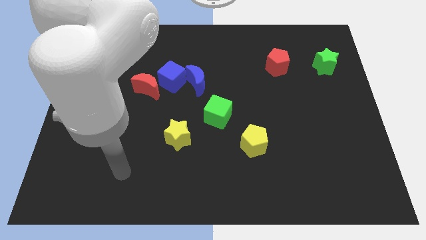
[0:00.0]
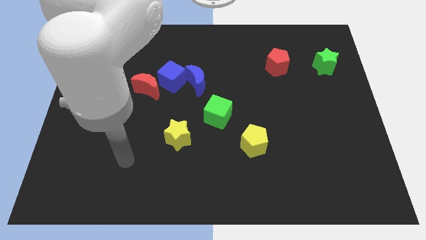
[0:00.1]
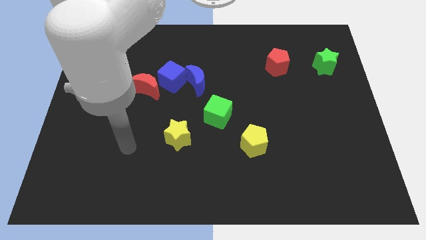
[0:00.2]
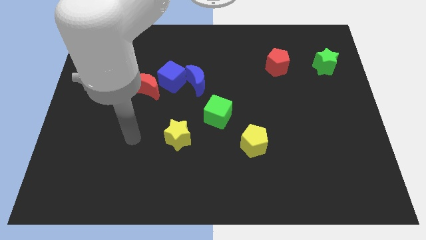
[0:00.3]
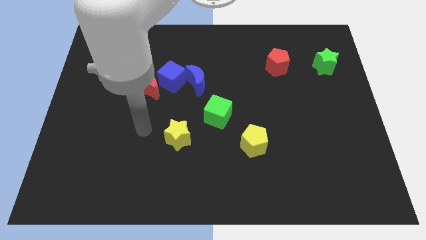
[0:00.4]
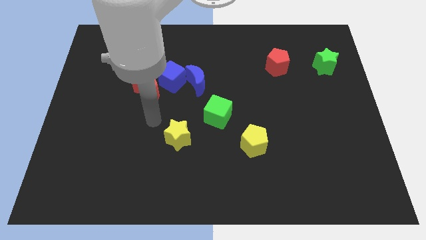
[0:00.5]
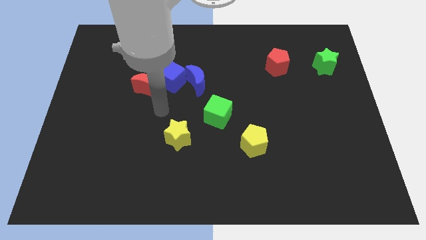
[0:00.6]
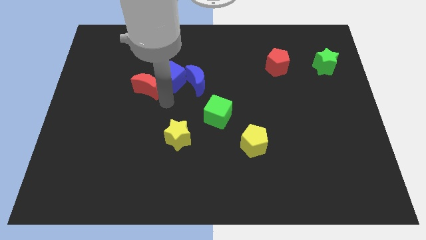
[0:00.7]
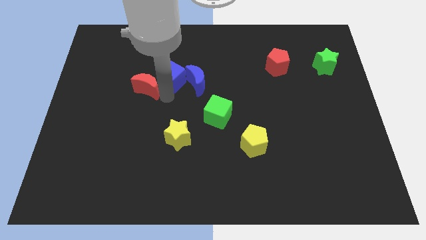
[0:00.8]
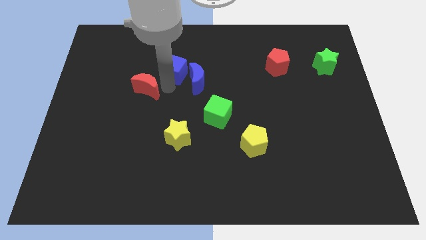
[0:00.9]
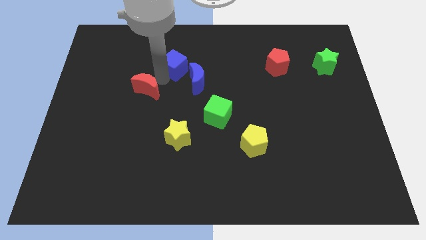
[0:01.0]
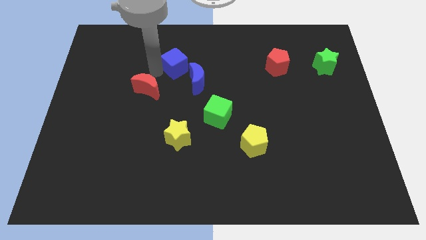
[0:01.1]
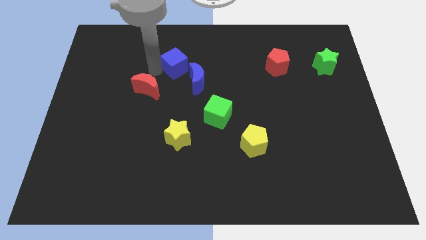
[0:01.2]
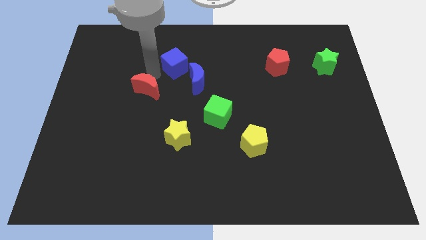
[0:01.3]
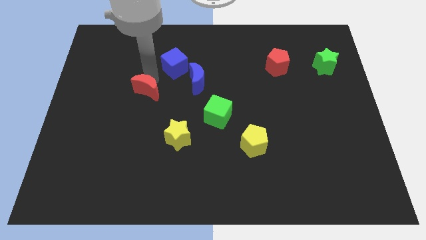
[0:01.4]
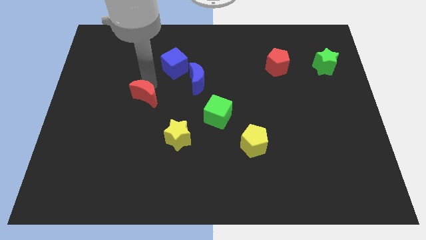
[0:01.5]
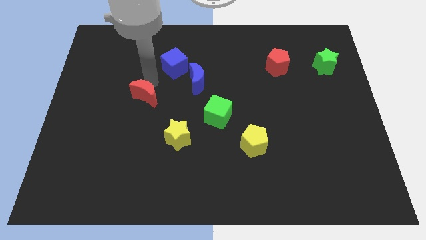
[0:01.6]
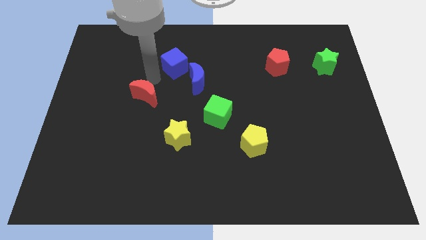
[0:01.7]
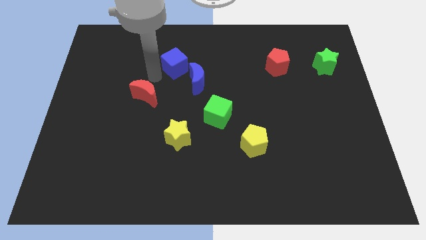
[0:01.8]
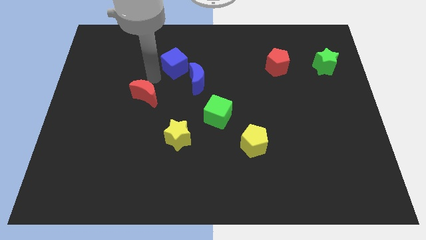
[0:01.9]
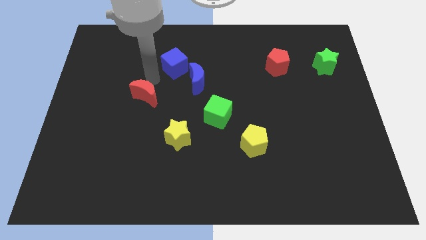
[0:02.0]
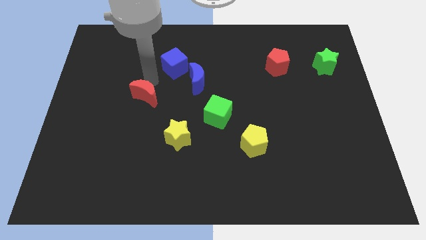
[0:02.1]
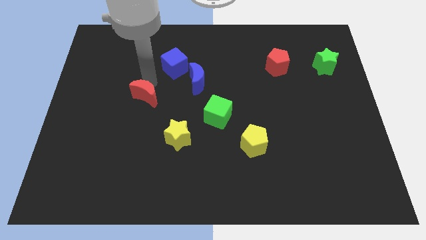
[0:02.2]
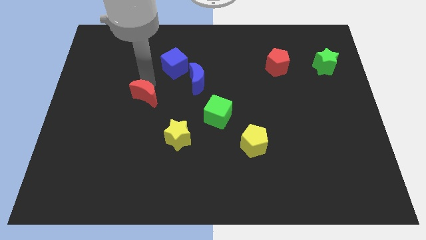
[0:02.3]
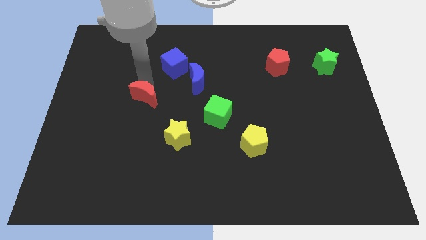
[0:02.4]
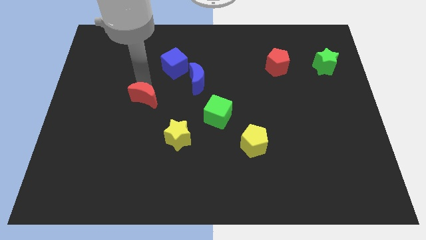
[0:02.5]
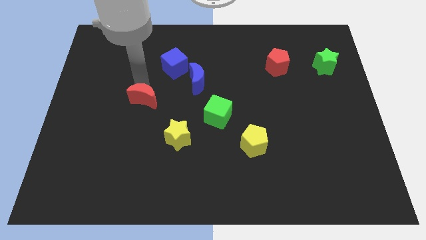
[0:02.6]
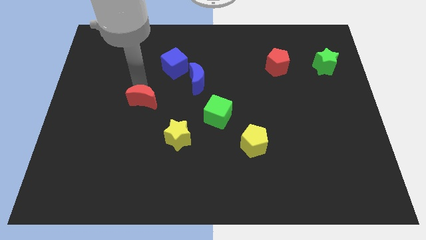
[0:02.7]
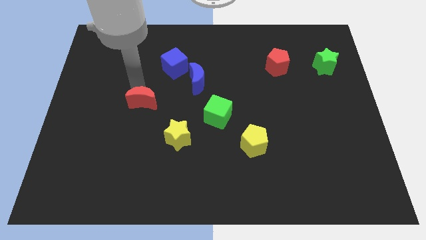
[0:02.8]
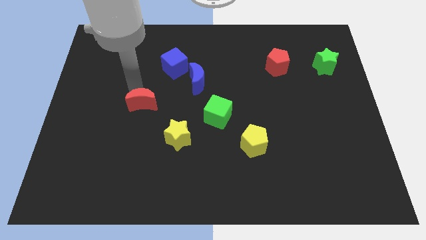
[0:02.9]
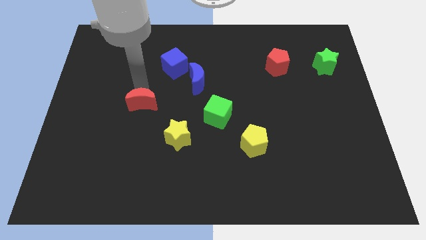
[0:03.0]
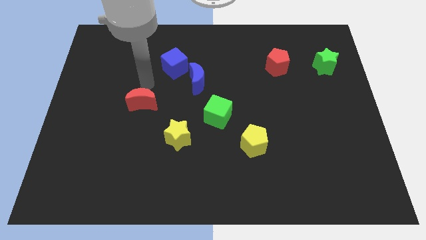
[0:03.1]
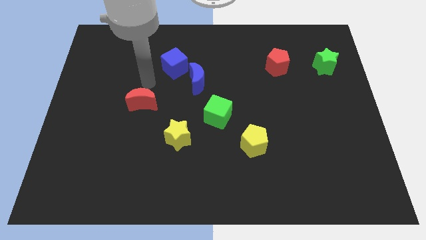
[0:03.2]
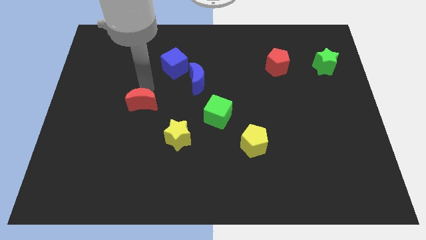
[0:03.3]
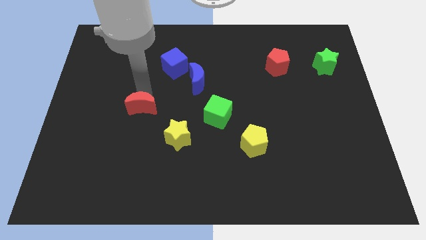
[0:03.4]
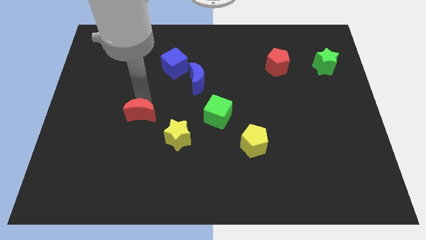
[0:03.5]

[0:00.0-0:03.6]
push the red moon somewhat downwards

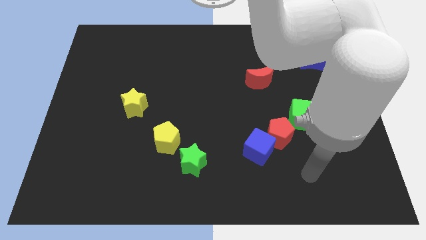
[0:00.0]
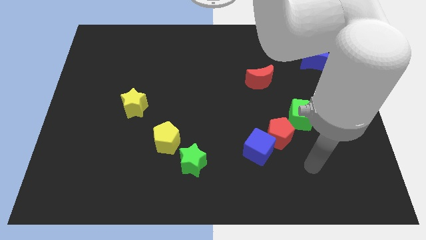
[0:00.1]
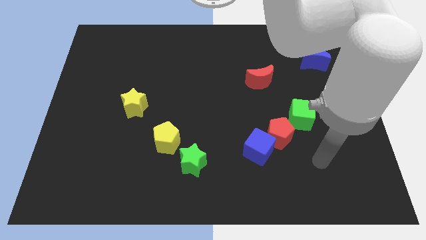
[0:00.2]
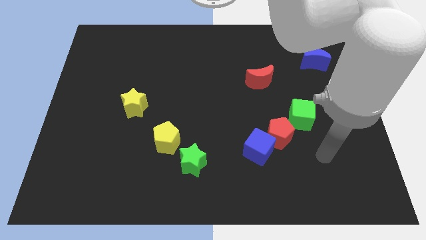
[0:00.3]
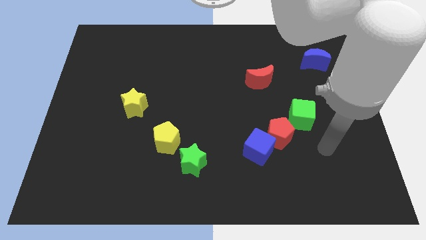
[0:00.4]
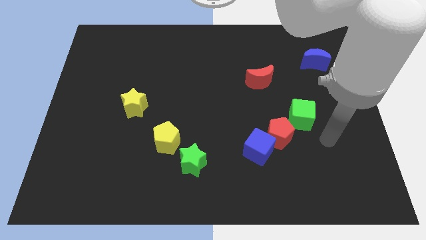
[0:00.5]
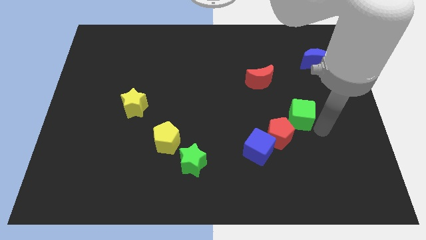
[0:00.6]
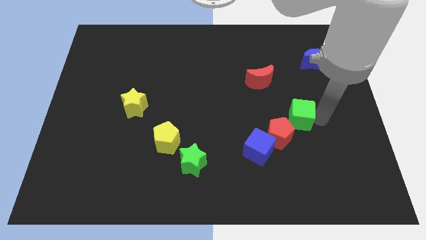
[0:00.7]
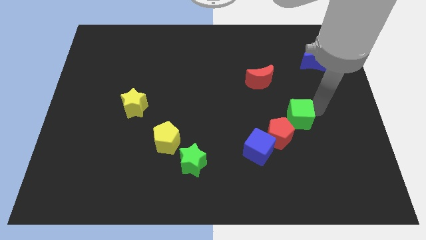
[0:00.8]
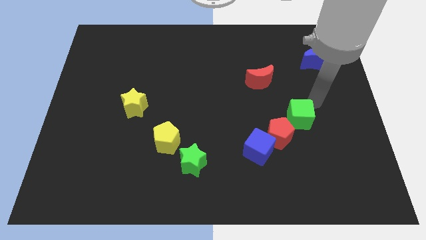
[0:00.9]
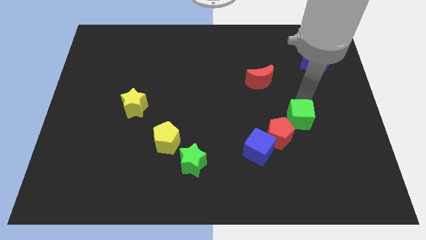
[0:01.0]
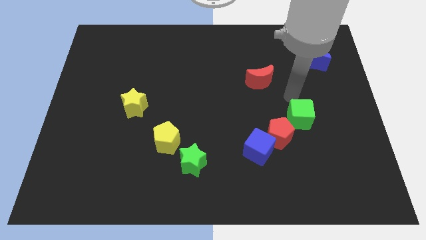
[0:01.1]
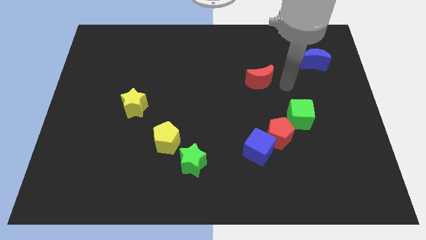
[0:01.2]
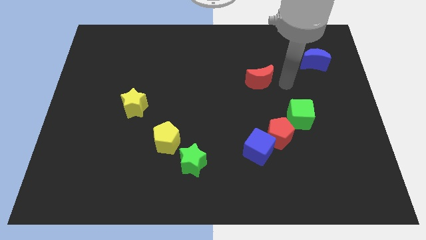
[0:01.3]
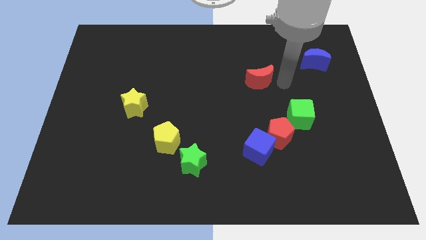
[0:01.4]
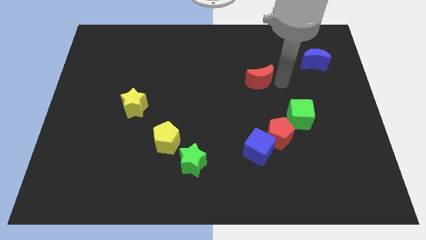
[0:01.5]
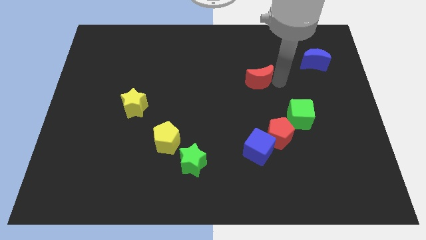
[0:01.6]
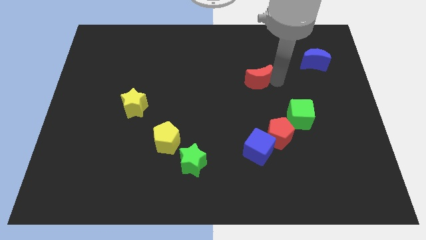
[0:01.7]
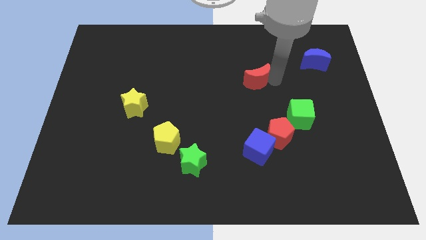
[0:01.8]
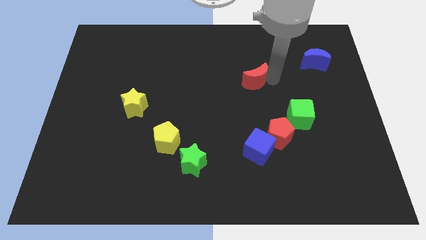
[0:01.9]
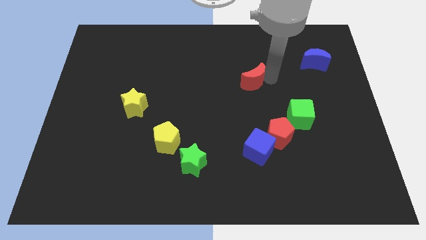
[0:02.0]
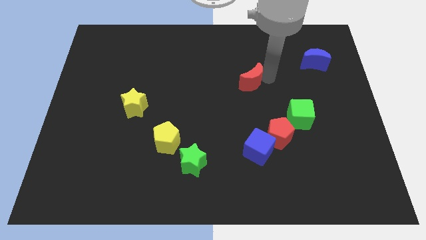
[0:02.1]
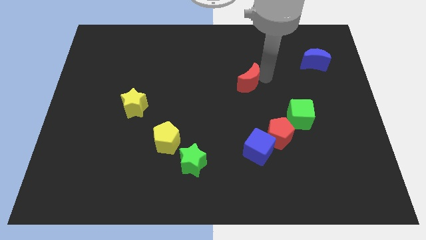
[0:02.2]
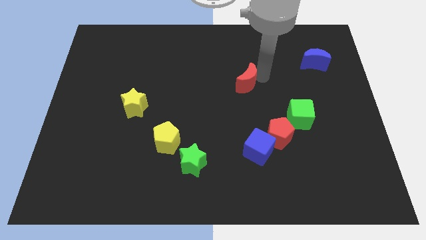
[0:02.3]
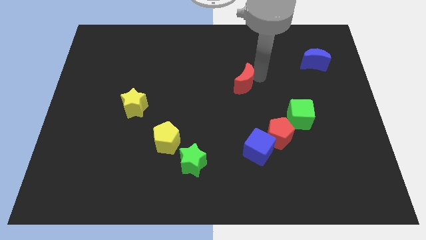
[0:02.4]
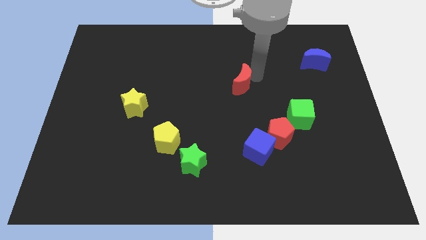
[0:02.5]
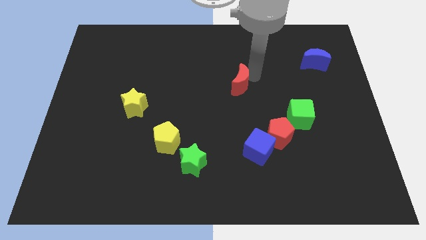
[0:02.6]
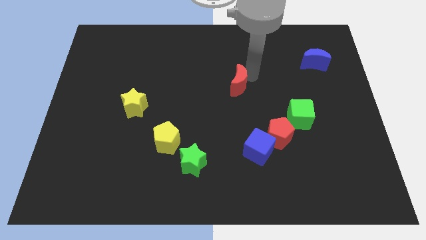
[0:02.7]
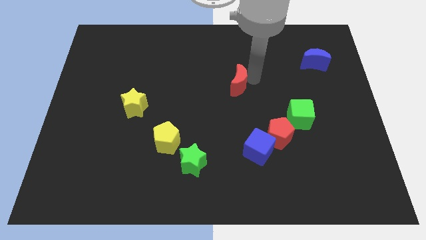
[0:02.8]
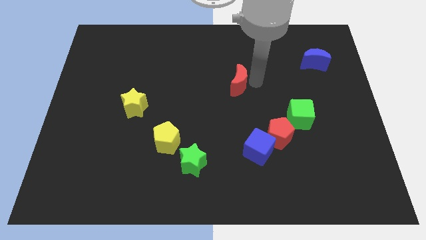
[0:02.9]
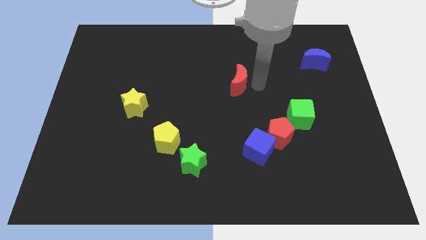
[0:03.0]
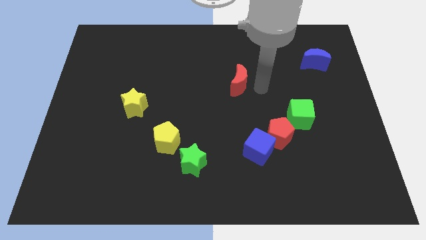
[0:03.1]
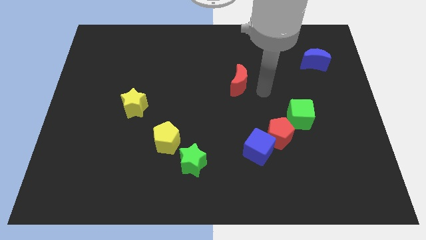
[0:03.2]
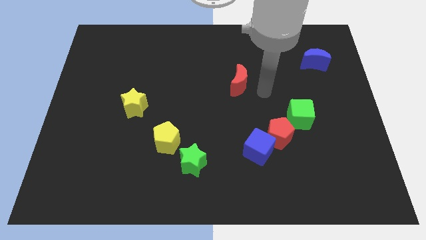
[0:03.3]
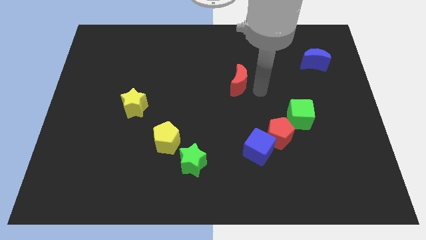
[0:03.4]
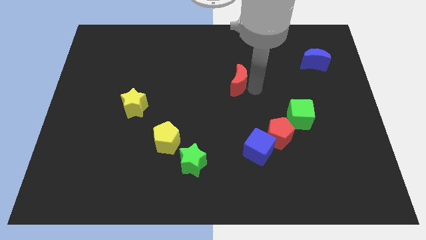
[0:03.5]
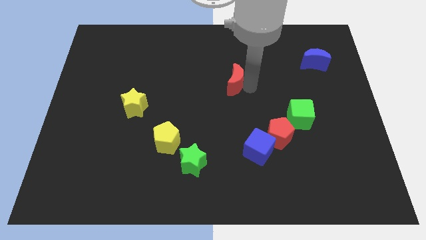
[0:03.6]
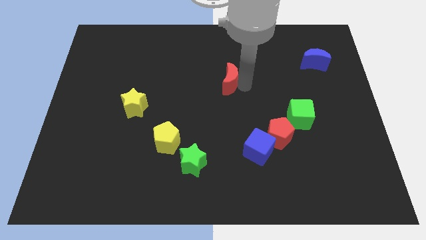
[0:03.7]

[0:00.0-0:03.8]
slide the red moon a bit left

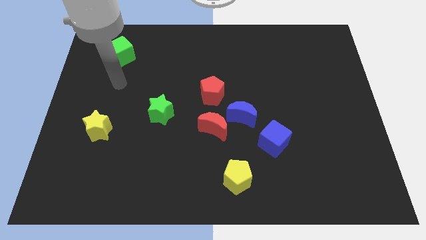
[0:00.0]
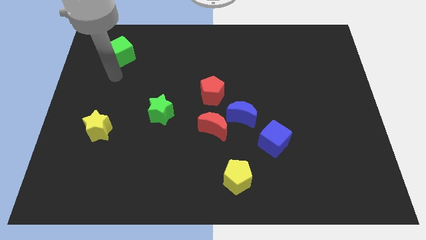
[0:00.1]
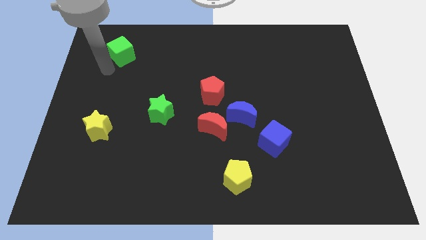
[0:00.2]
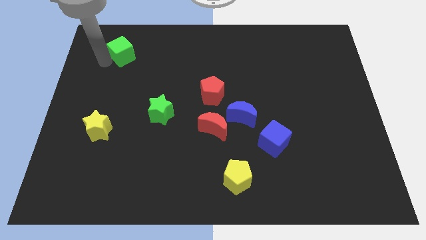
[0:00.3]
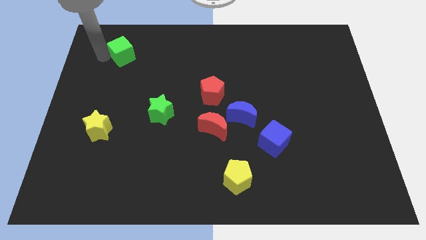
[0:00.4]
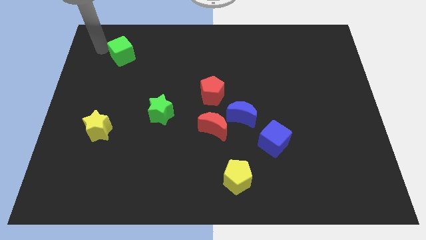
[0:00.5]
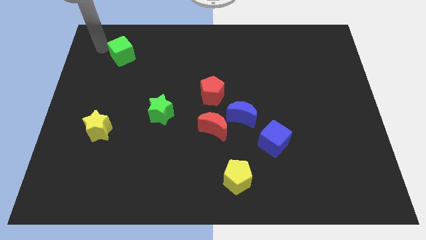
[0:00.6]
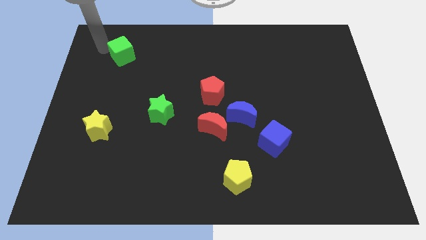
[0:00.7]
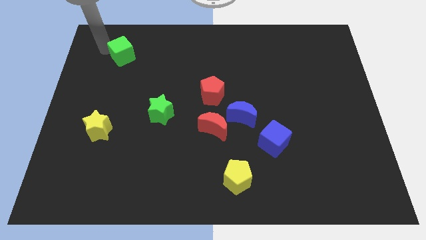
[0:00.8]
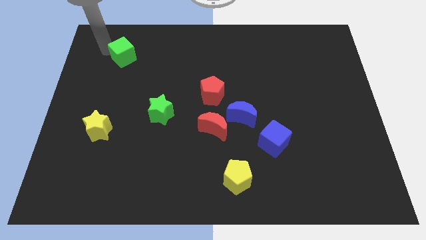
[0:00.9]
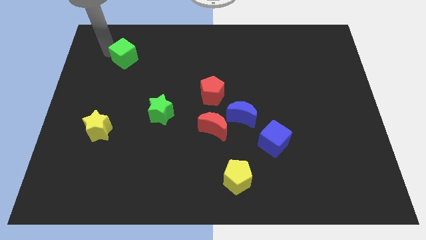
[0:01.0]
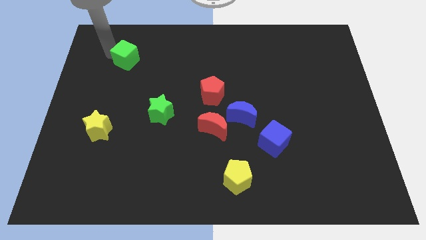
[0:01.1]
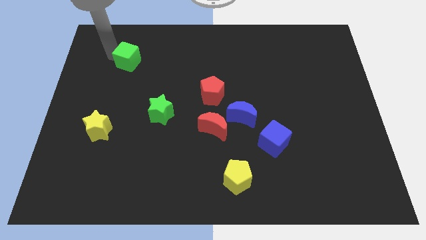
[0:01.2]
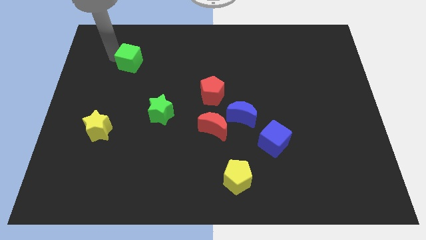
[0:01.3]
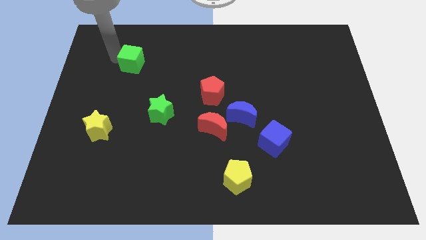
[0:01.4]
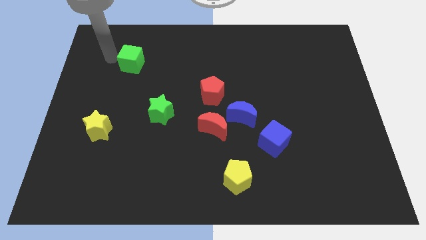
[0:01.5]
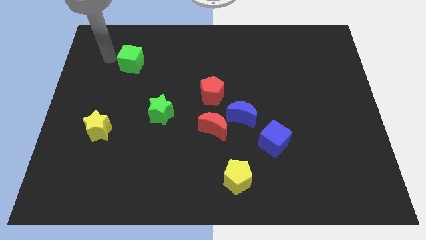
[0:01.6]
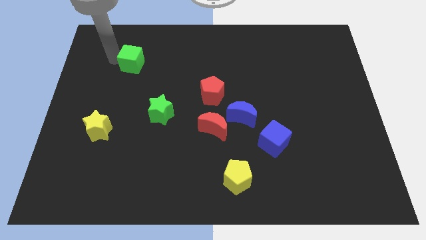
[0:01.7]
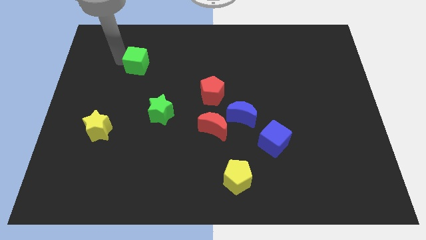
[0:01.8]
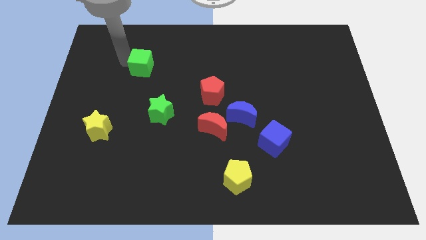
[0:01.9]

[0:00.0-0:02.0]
slide the green cube a little diagonally downwards and to the right
